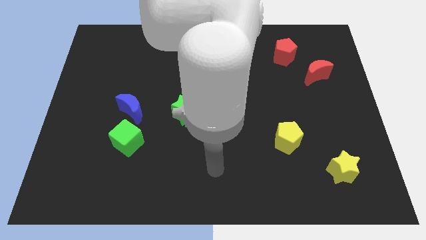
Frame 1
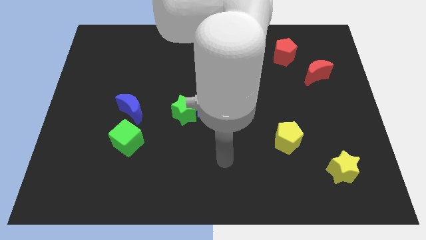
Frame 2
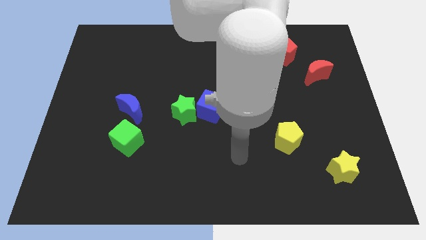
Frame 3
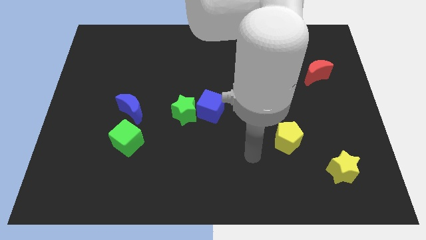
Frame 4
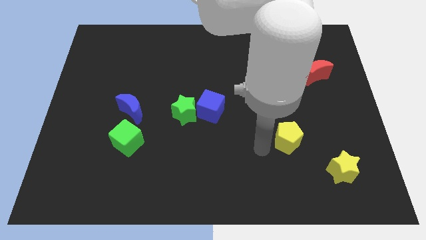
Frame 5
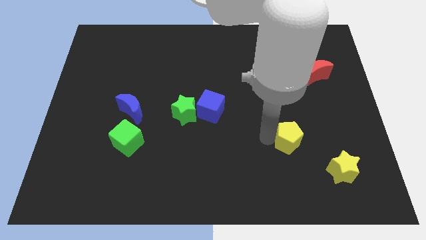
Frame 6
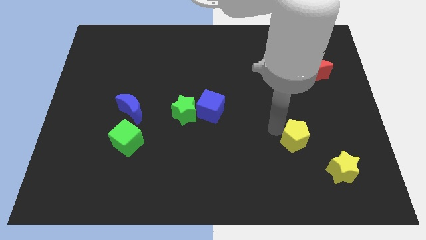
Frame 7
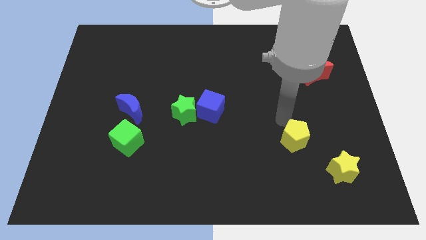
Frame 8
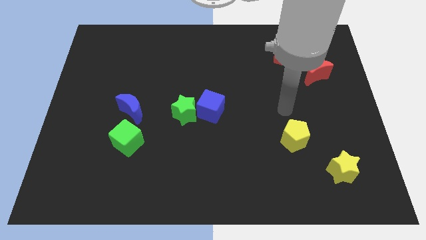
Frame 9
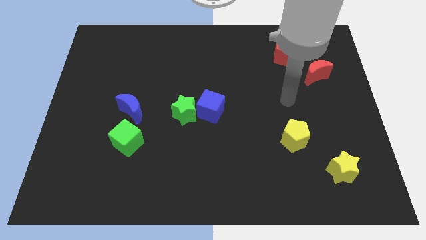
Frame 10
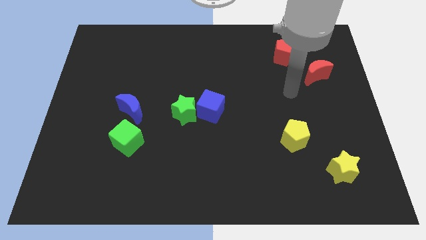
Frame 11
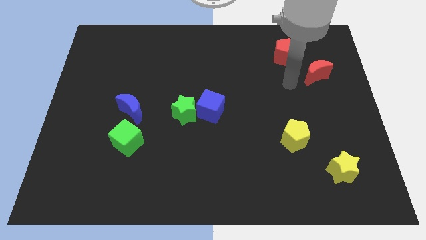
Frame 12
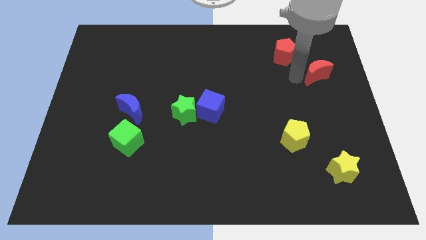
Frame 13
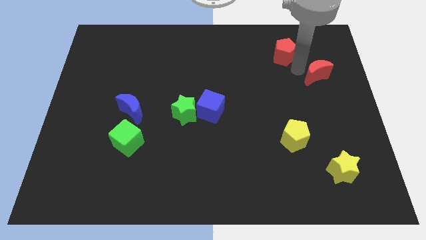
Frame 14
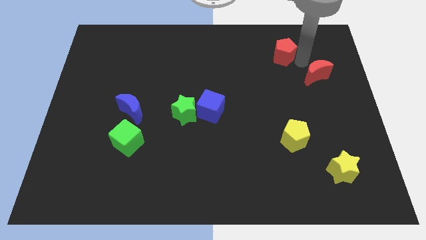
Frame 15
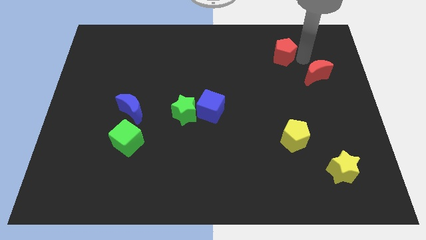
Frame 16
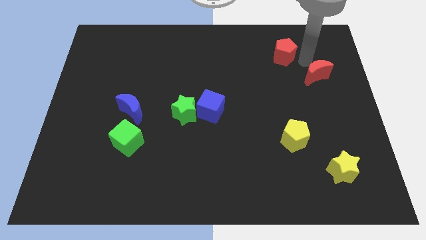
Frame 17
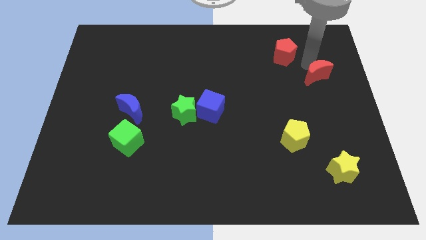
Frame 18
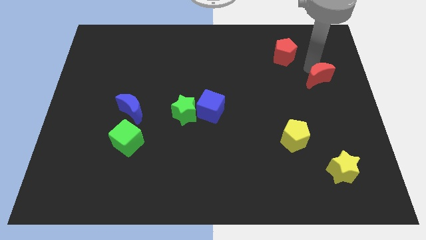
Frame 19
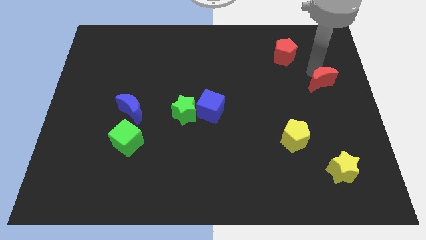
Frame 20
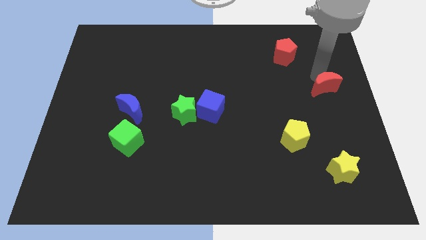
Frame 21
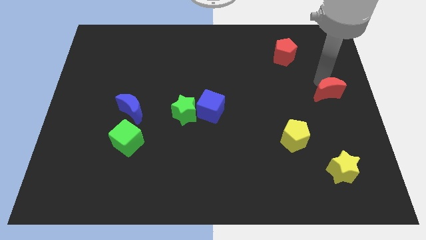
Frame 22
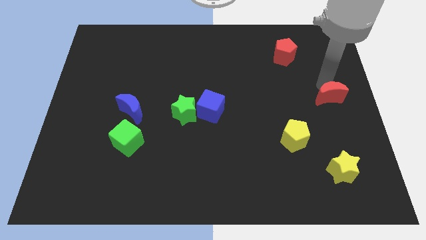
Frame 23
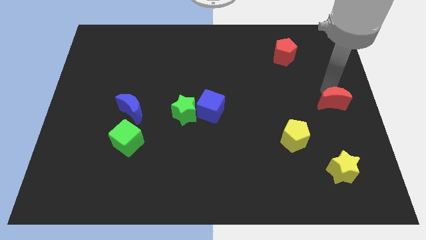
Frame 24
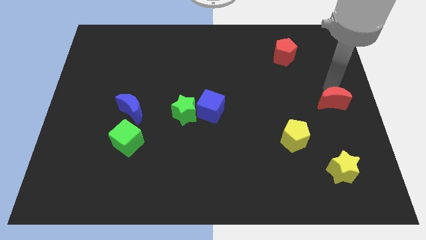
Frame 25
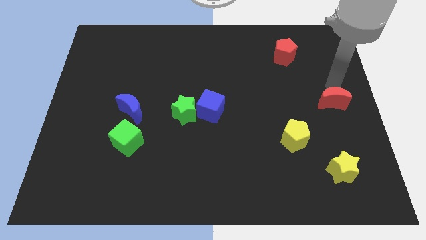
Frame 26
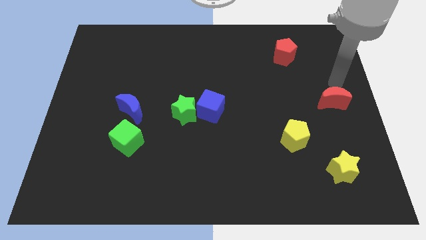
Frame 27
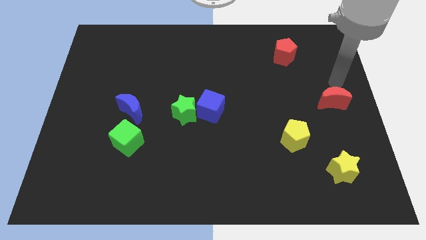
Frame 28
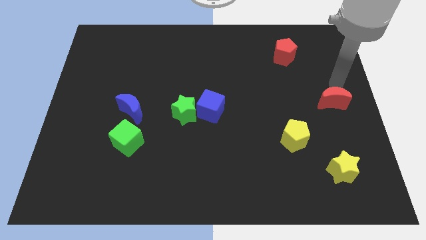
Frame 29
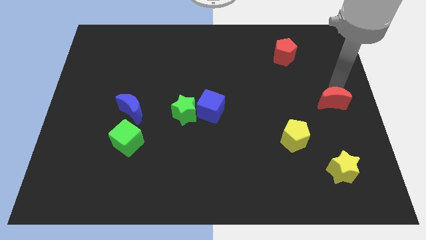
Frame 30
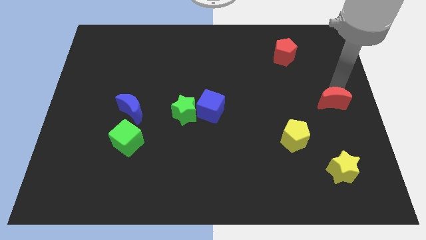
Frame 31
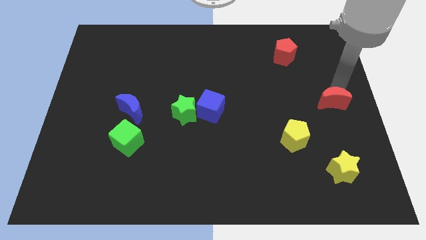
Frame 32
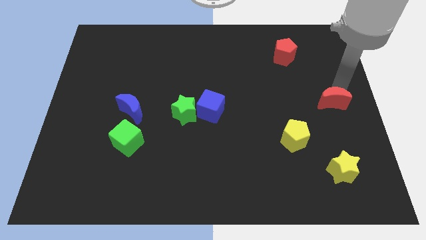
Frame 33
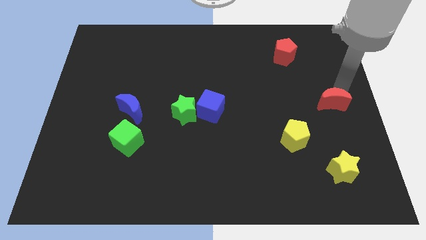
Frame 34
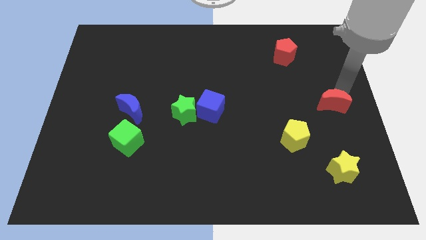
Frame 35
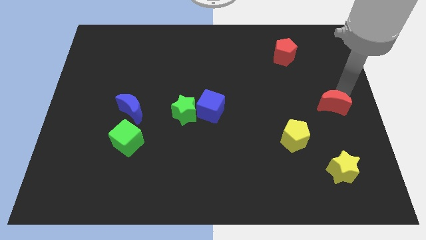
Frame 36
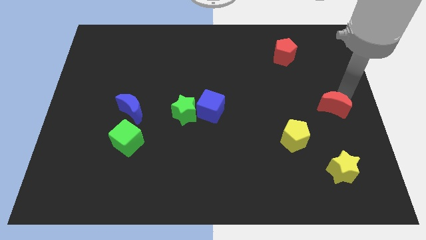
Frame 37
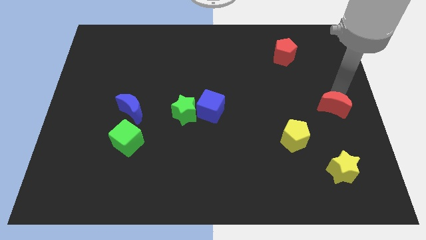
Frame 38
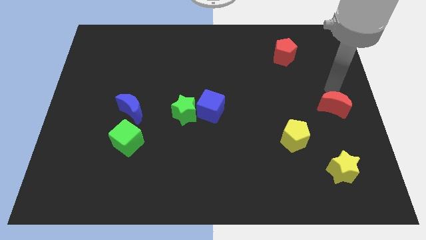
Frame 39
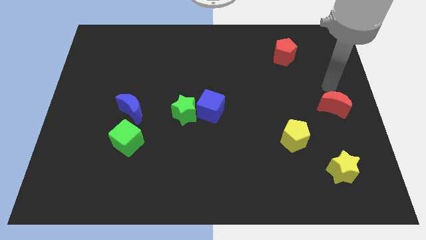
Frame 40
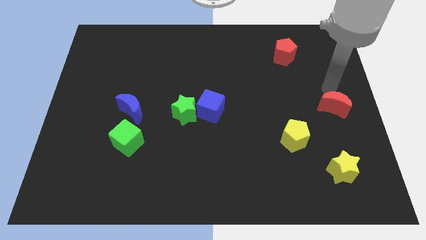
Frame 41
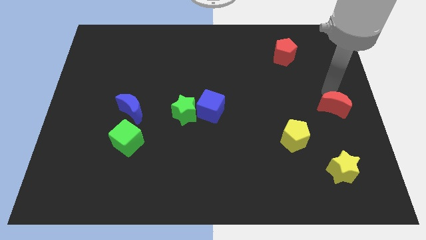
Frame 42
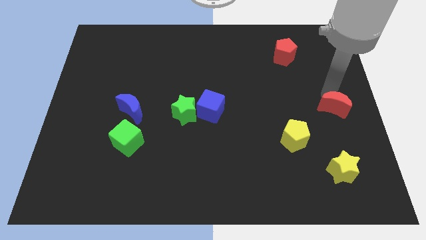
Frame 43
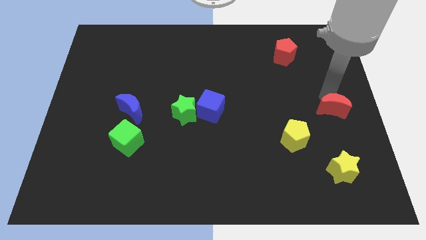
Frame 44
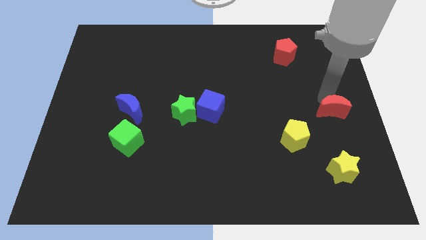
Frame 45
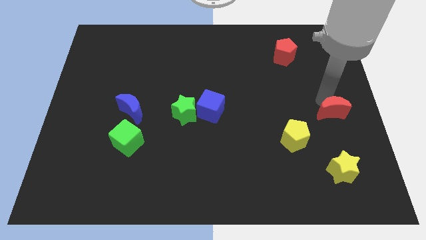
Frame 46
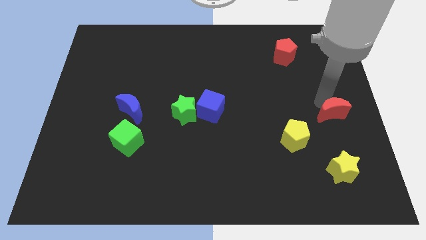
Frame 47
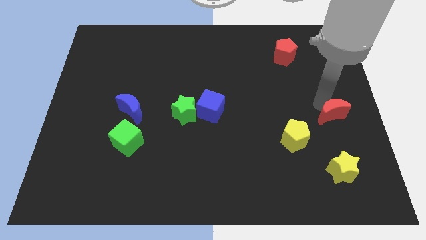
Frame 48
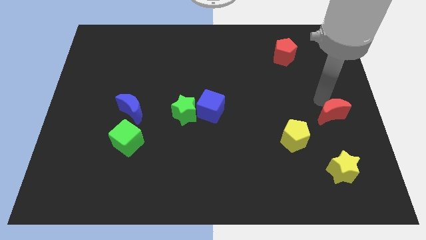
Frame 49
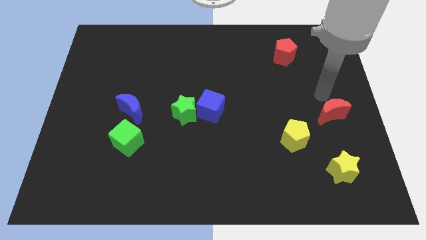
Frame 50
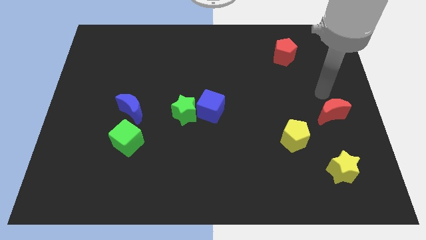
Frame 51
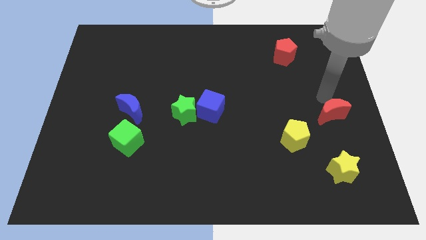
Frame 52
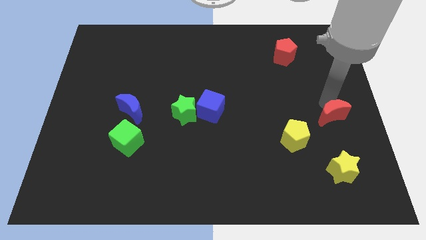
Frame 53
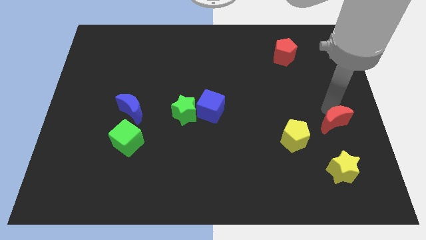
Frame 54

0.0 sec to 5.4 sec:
slide the red moon to the right side of the yellow pentagon

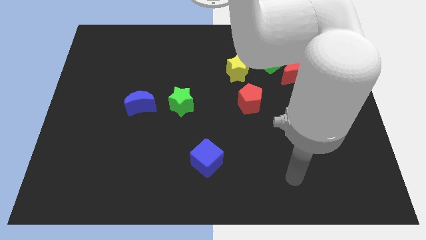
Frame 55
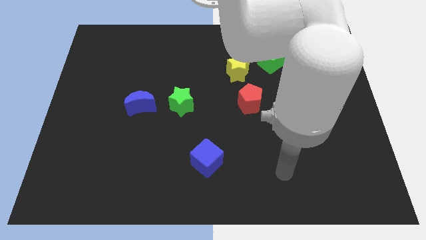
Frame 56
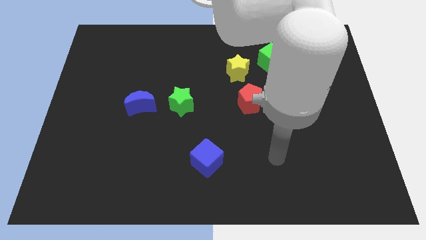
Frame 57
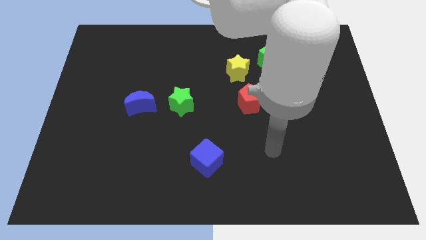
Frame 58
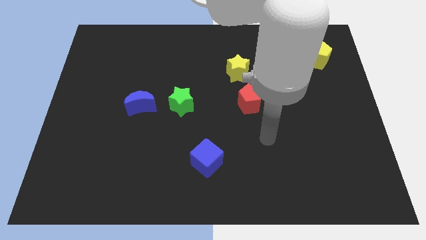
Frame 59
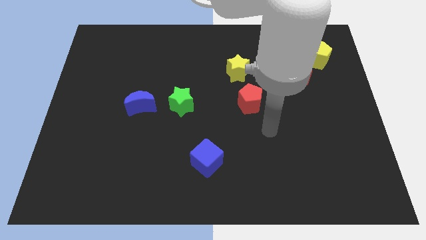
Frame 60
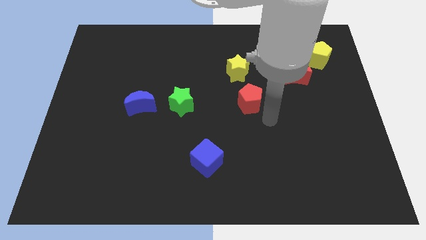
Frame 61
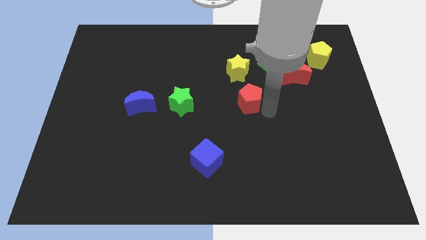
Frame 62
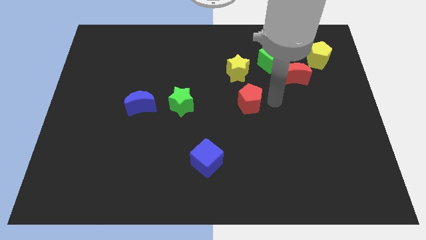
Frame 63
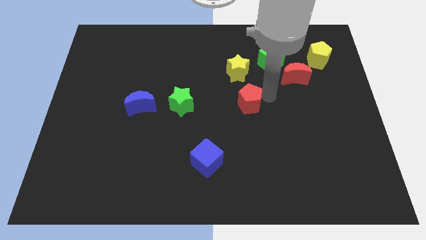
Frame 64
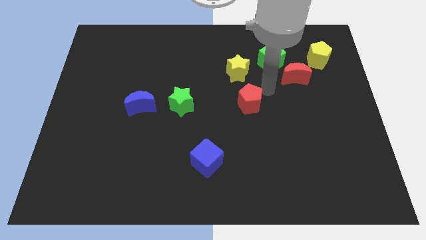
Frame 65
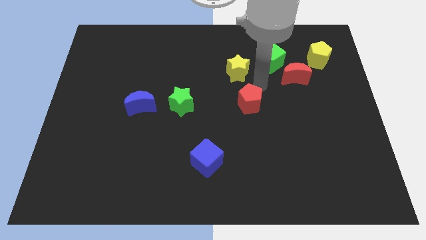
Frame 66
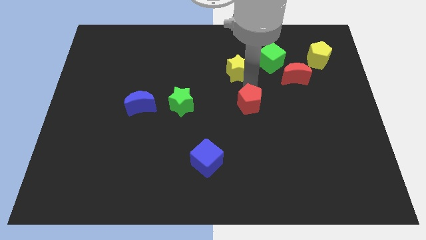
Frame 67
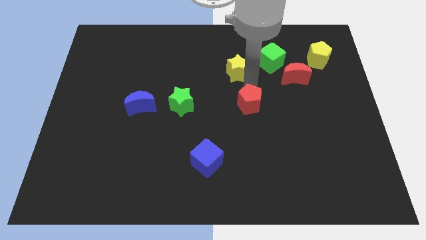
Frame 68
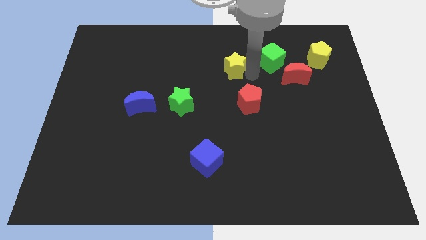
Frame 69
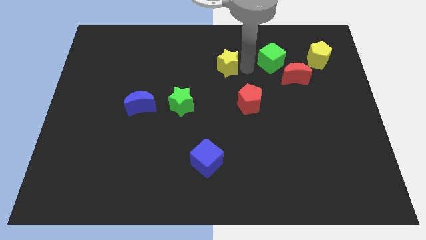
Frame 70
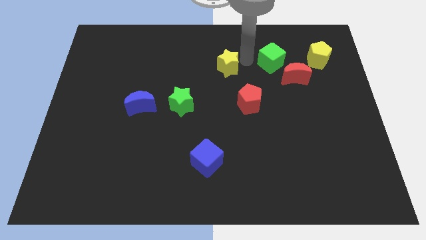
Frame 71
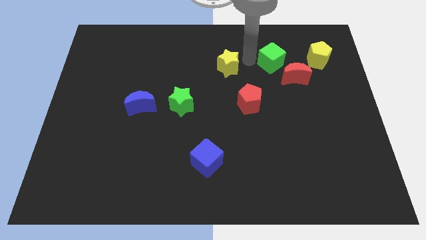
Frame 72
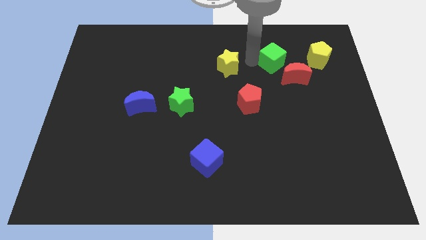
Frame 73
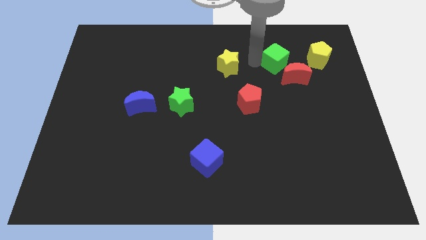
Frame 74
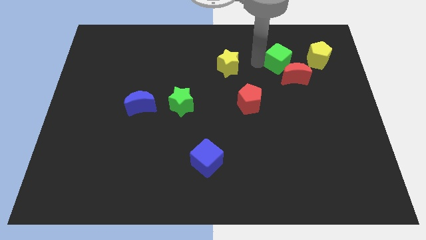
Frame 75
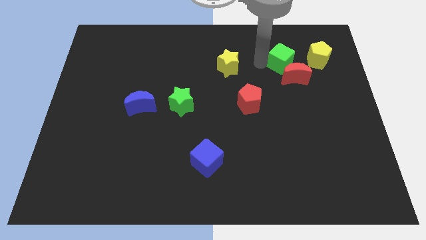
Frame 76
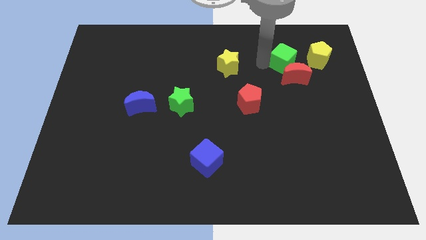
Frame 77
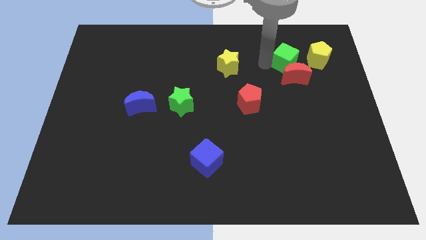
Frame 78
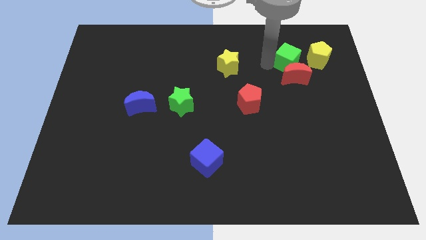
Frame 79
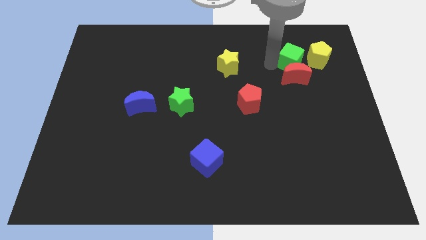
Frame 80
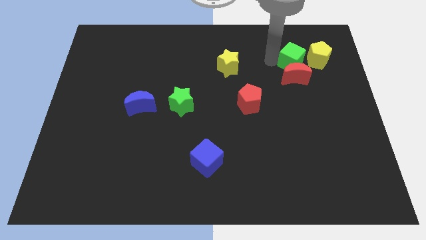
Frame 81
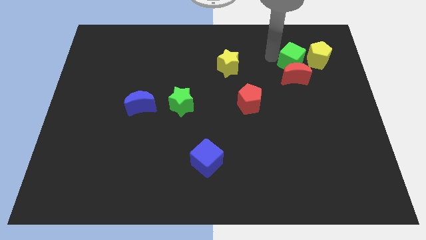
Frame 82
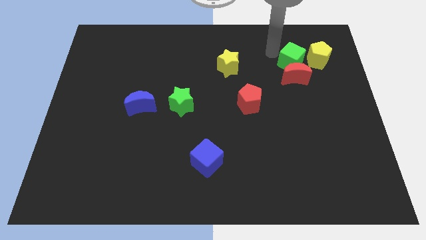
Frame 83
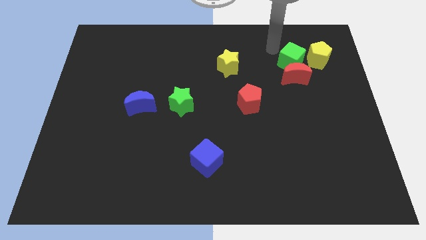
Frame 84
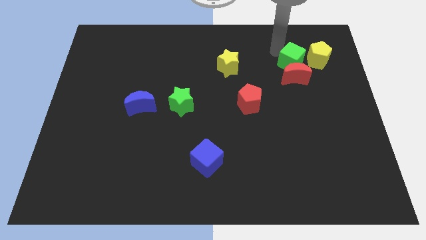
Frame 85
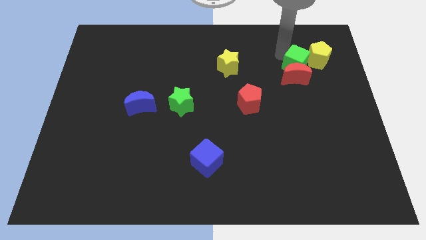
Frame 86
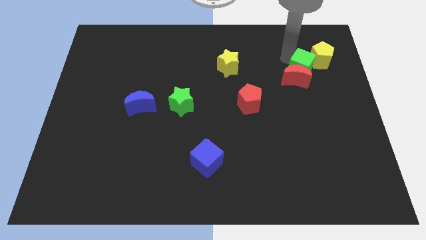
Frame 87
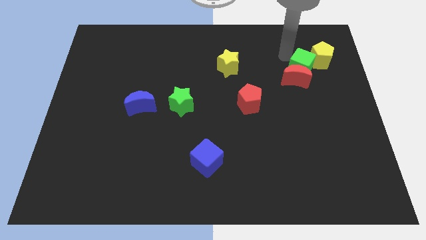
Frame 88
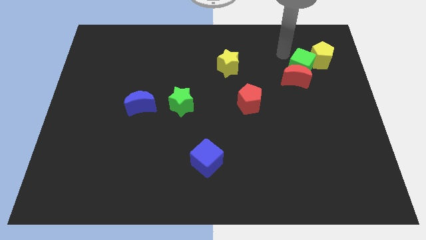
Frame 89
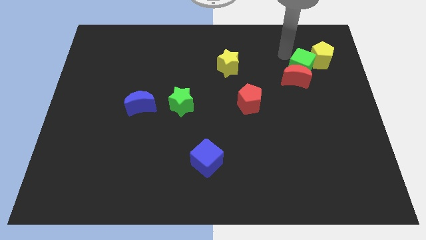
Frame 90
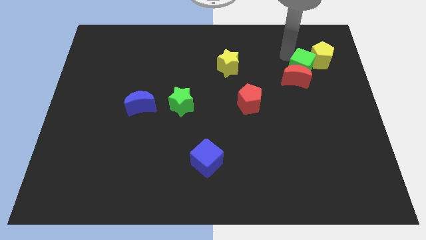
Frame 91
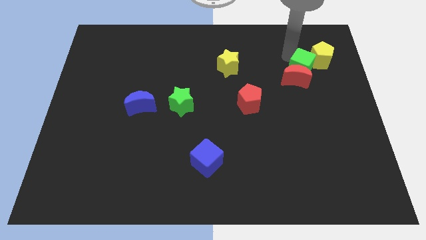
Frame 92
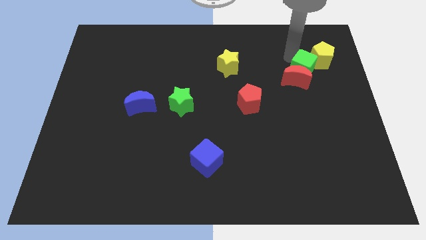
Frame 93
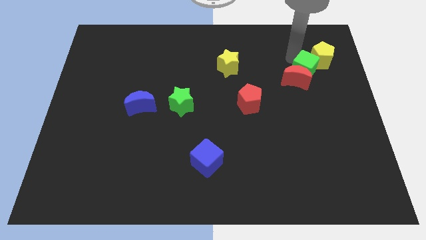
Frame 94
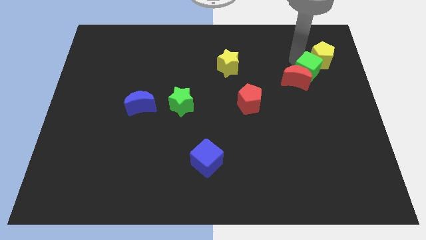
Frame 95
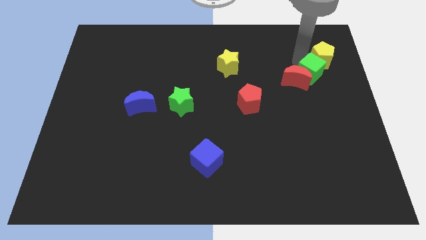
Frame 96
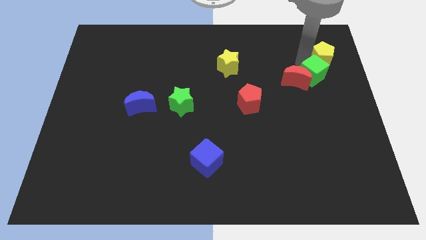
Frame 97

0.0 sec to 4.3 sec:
move the green cube to the bottom right of the red moon
